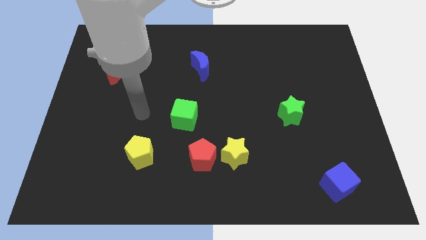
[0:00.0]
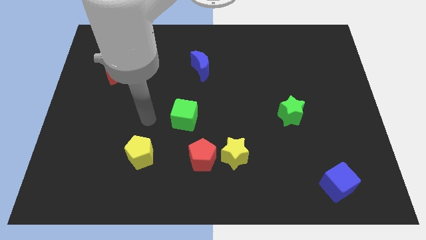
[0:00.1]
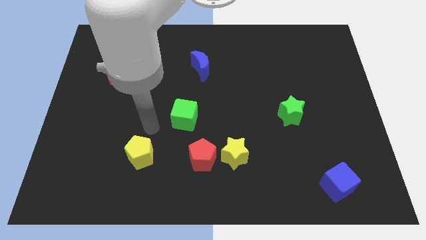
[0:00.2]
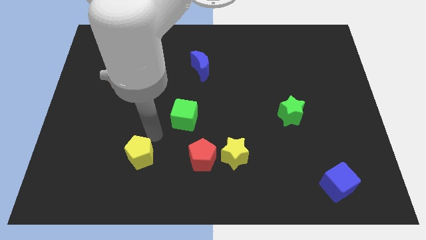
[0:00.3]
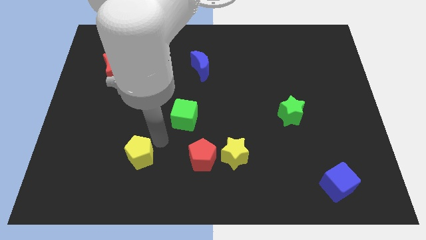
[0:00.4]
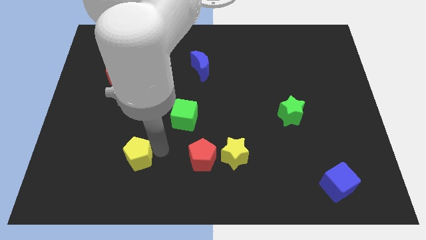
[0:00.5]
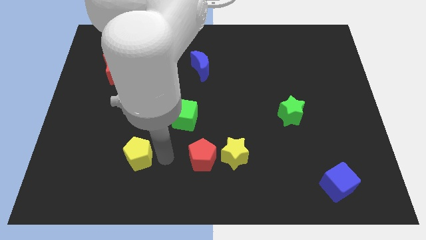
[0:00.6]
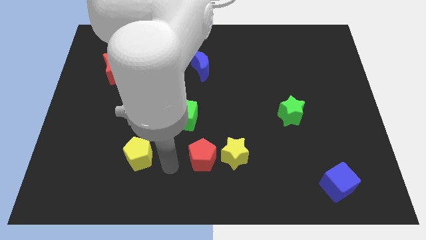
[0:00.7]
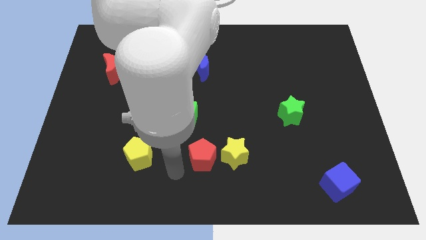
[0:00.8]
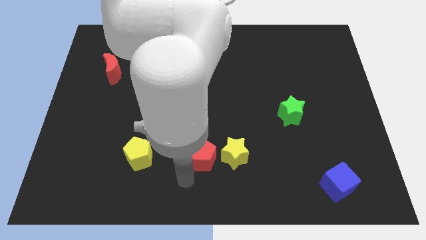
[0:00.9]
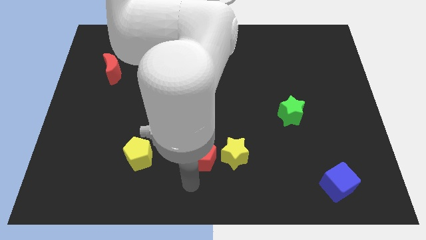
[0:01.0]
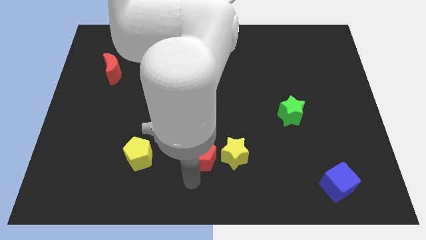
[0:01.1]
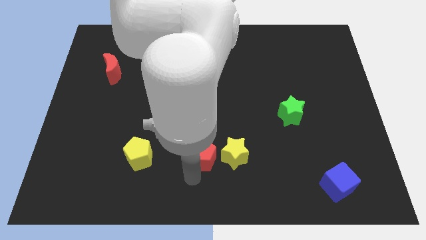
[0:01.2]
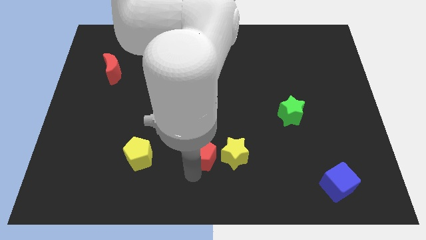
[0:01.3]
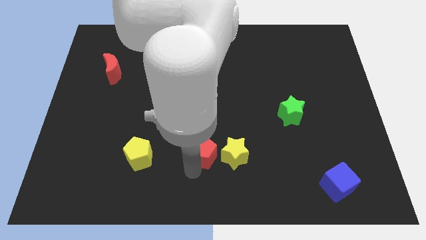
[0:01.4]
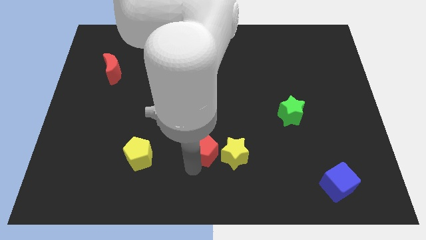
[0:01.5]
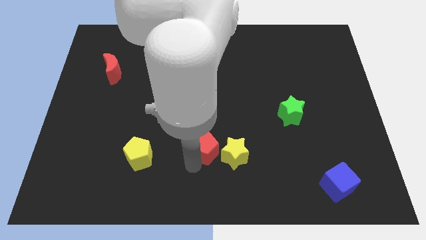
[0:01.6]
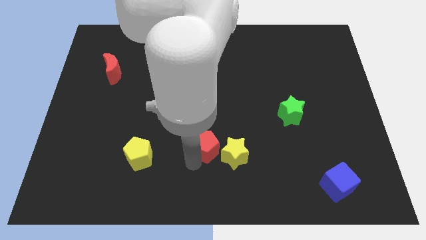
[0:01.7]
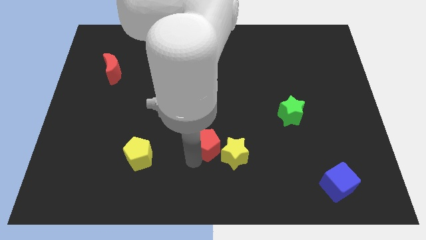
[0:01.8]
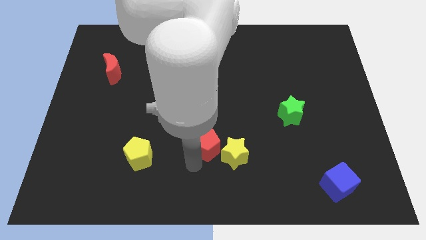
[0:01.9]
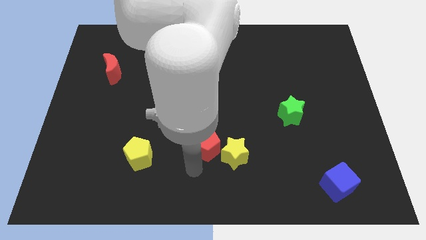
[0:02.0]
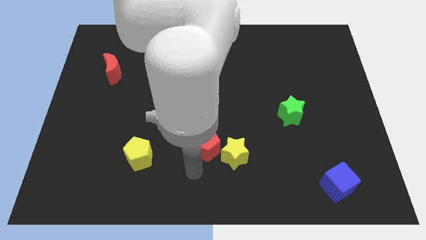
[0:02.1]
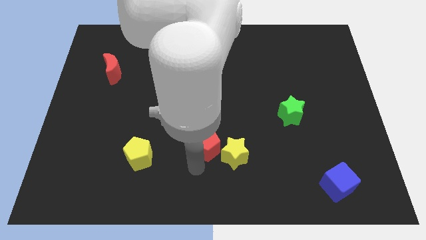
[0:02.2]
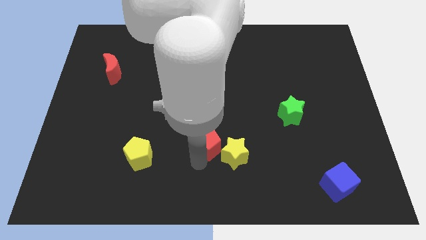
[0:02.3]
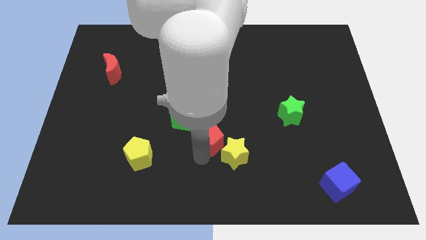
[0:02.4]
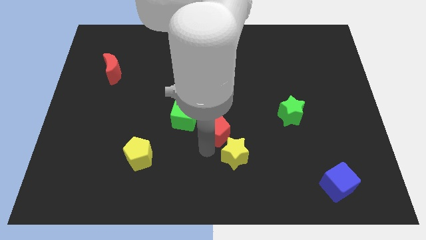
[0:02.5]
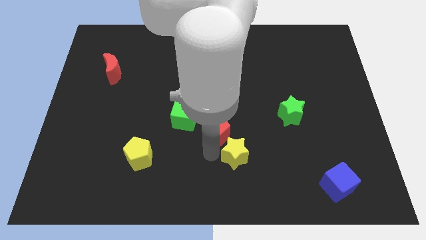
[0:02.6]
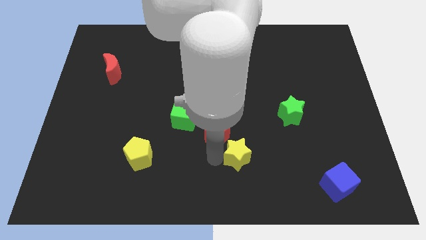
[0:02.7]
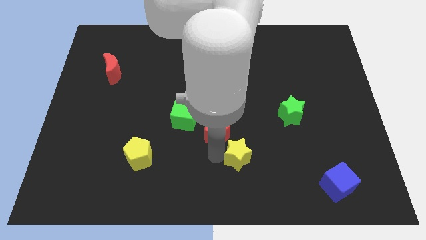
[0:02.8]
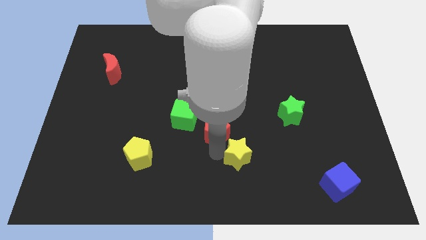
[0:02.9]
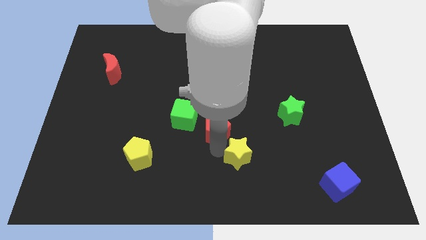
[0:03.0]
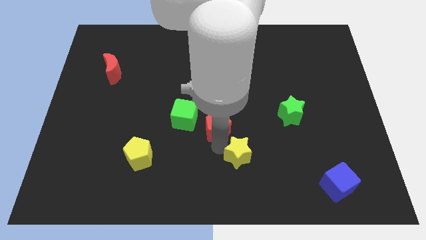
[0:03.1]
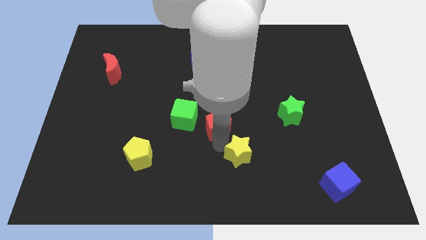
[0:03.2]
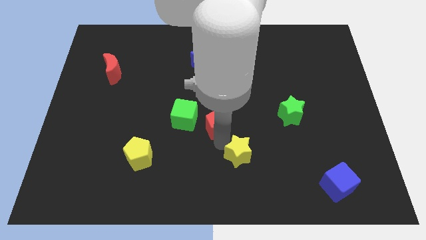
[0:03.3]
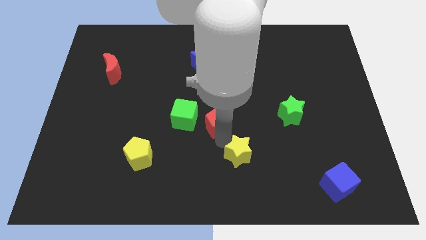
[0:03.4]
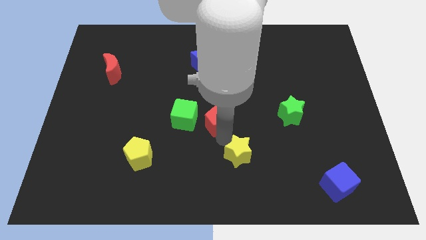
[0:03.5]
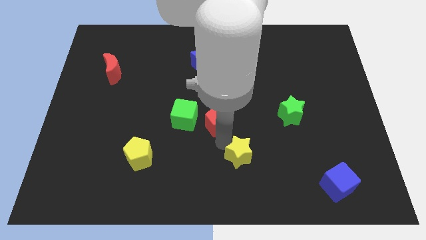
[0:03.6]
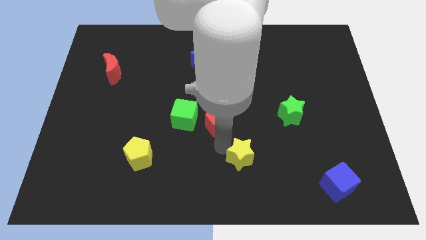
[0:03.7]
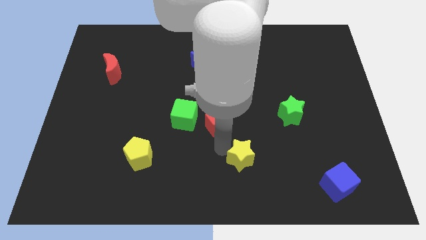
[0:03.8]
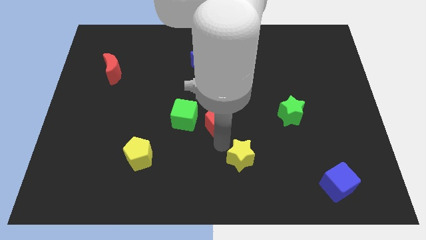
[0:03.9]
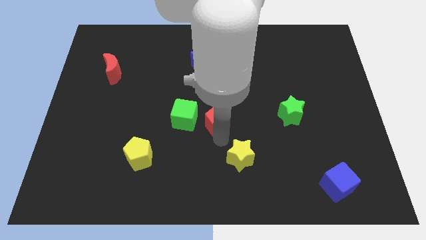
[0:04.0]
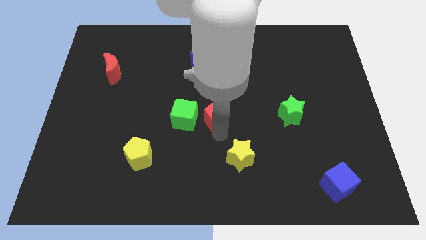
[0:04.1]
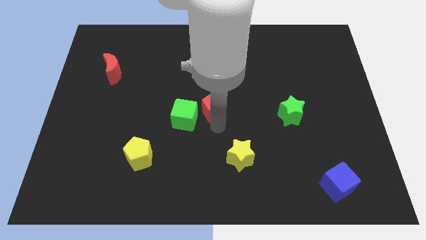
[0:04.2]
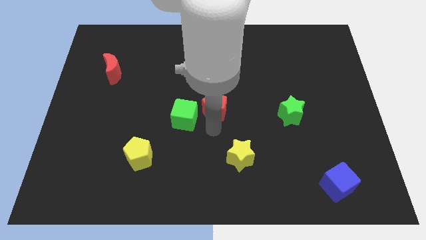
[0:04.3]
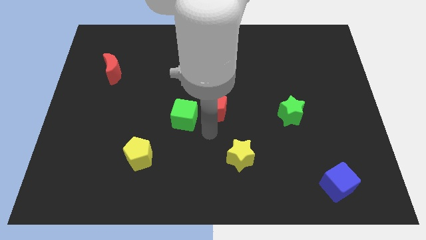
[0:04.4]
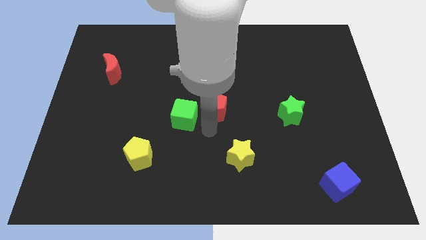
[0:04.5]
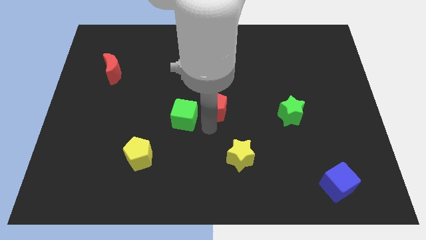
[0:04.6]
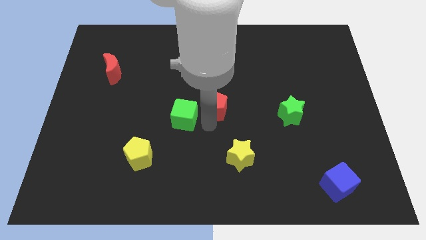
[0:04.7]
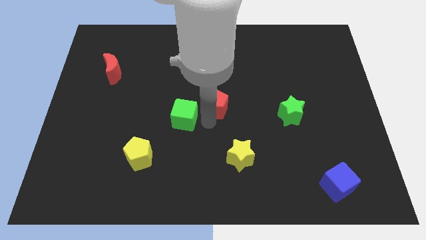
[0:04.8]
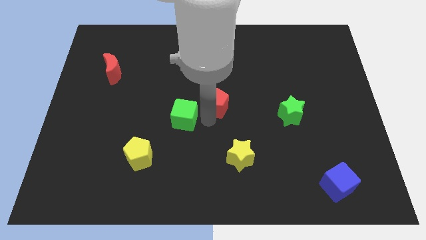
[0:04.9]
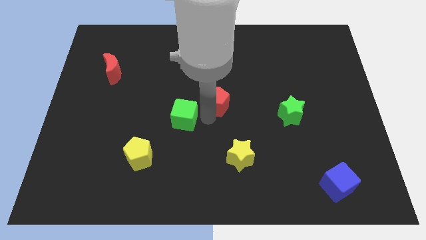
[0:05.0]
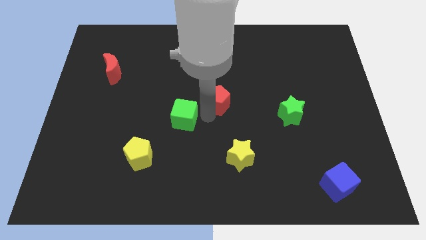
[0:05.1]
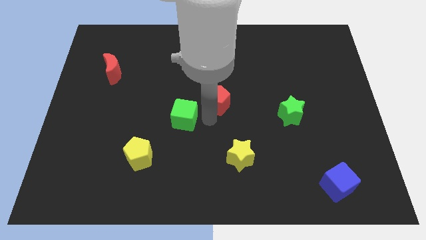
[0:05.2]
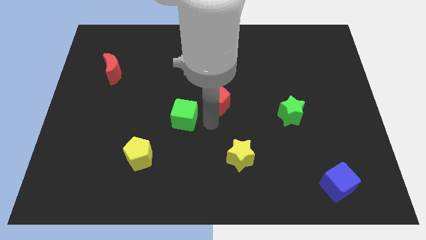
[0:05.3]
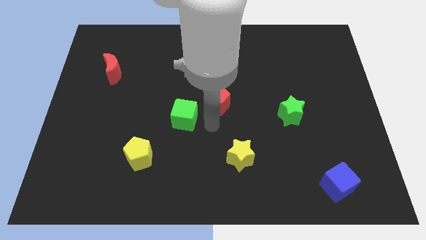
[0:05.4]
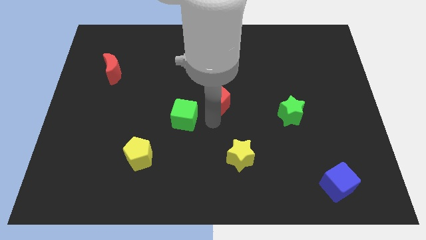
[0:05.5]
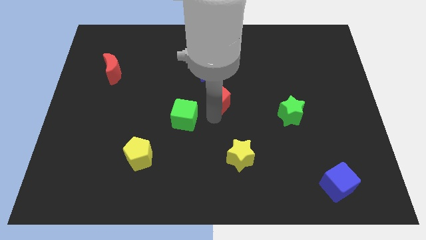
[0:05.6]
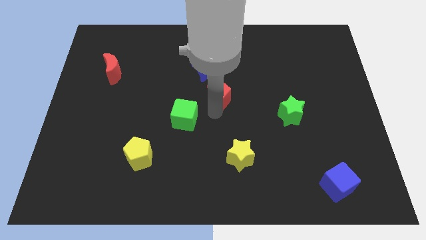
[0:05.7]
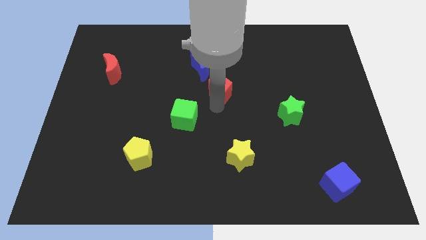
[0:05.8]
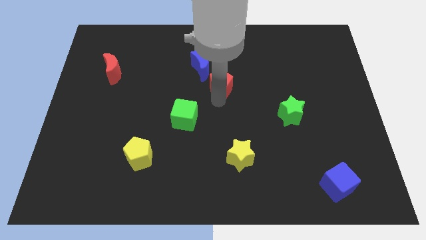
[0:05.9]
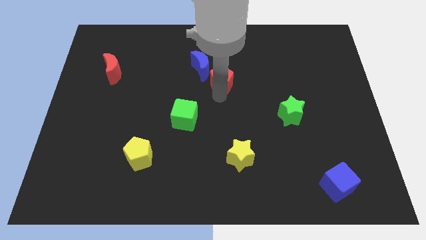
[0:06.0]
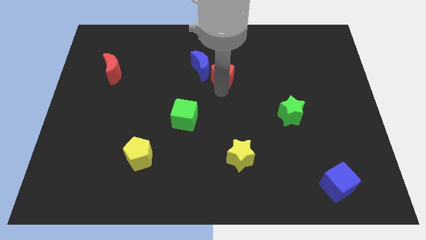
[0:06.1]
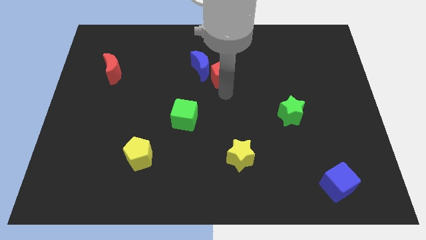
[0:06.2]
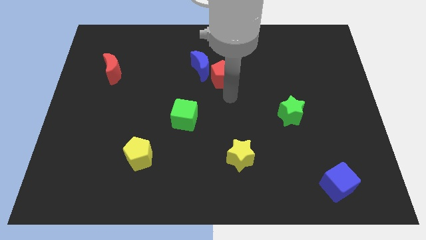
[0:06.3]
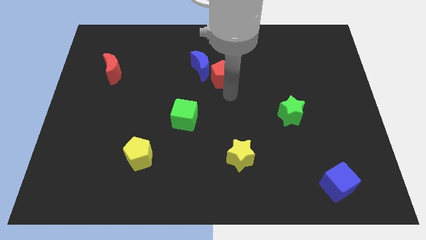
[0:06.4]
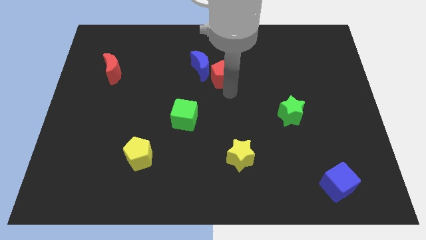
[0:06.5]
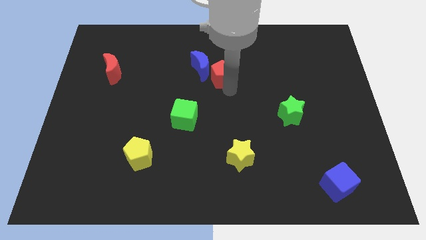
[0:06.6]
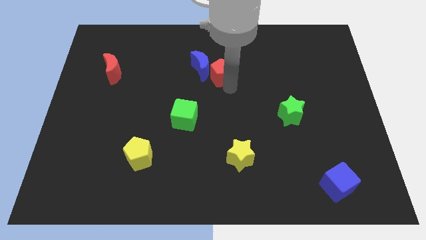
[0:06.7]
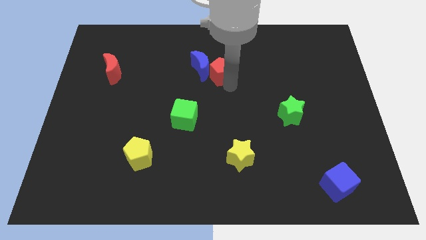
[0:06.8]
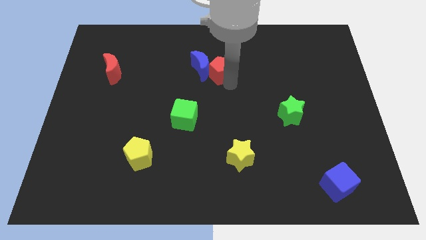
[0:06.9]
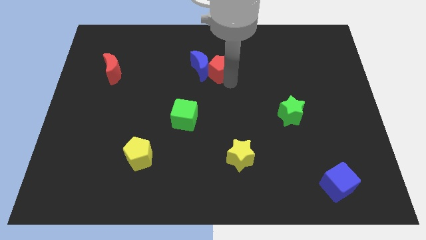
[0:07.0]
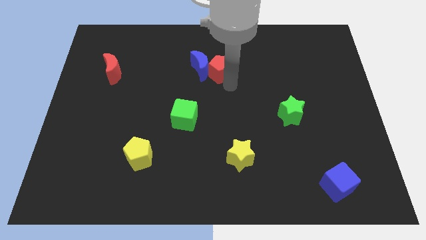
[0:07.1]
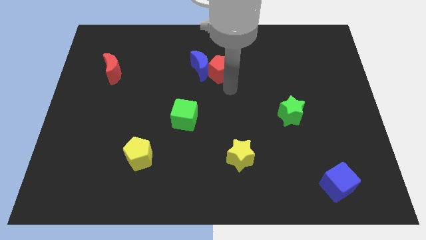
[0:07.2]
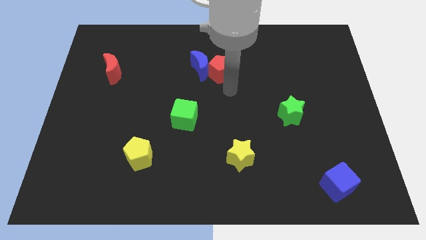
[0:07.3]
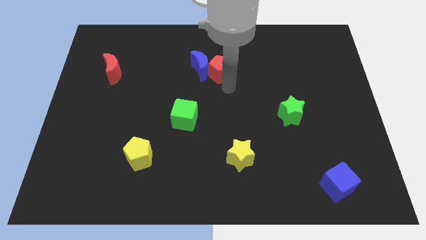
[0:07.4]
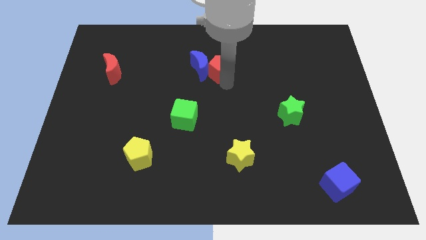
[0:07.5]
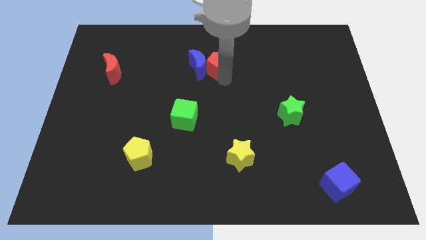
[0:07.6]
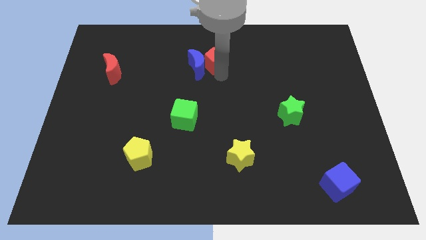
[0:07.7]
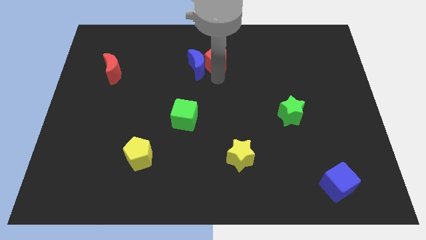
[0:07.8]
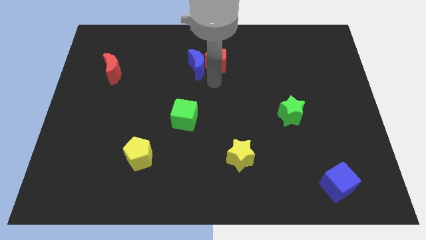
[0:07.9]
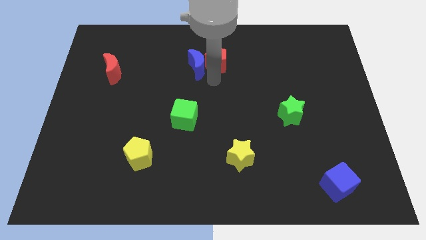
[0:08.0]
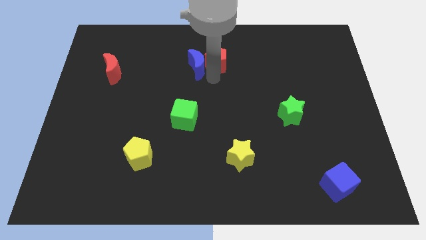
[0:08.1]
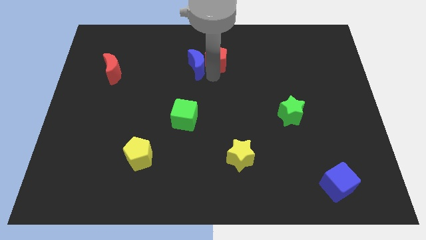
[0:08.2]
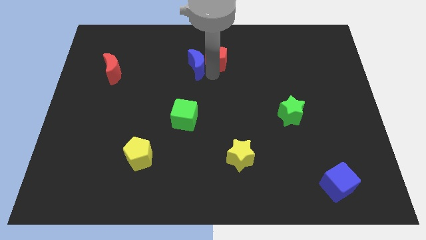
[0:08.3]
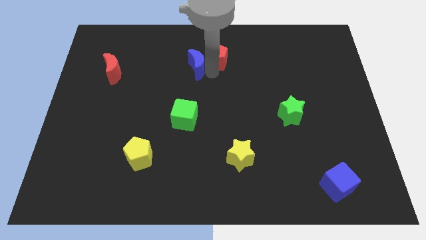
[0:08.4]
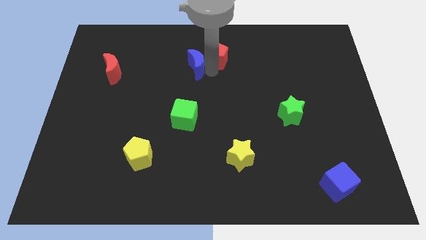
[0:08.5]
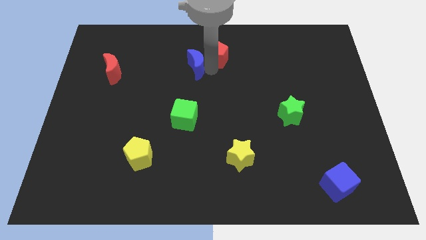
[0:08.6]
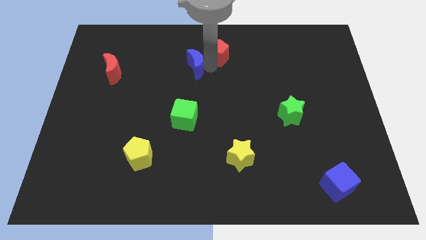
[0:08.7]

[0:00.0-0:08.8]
push the red pentagon to the top
